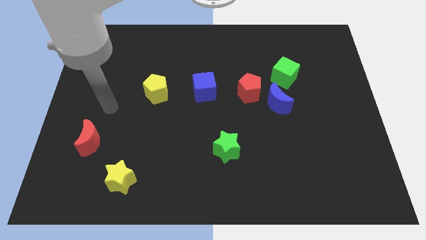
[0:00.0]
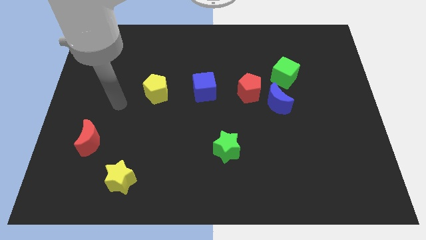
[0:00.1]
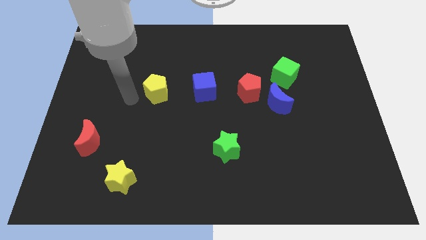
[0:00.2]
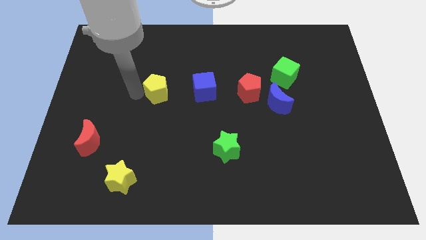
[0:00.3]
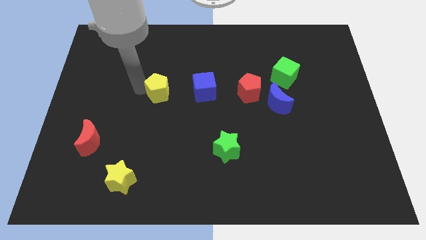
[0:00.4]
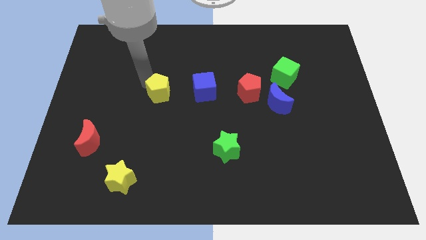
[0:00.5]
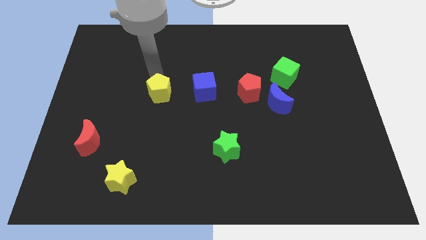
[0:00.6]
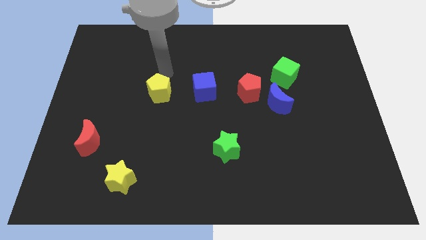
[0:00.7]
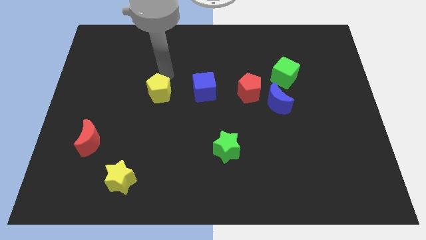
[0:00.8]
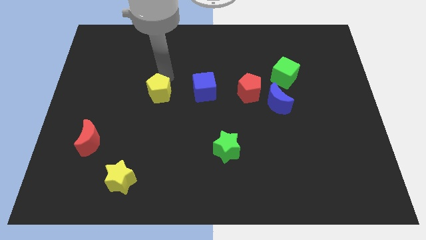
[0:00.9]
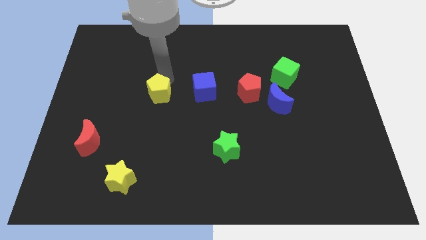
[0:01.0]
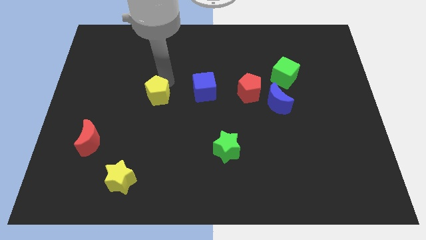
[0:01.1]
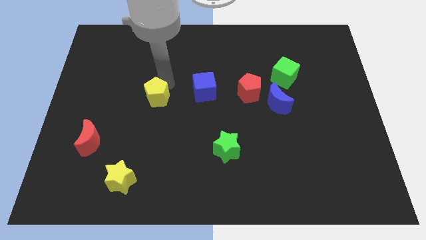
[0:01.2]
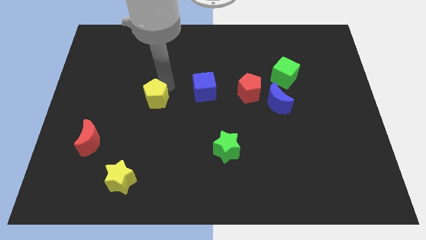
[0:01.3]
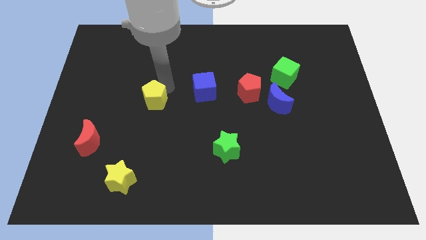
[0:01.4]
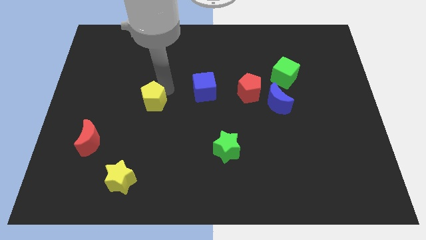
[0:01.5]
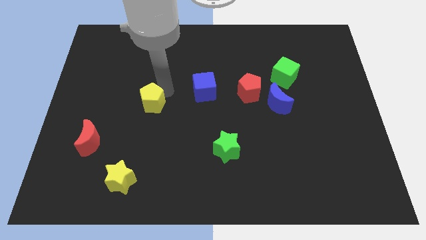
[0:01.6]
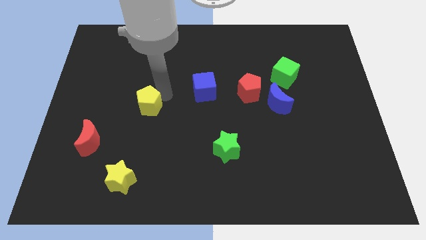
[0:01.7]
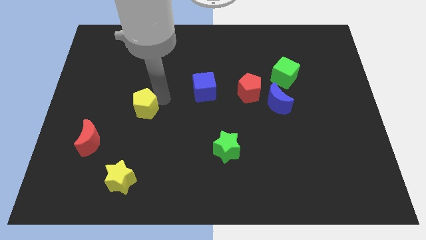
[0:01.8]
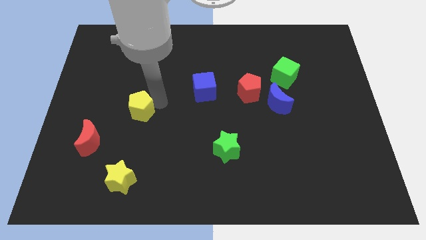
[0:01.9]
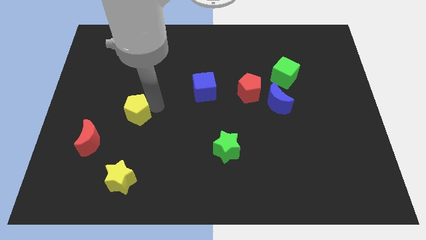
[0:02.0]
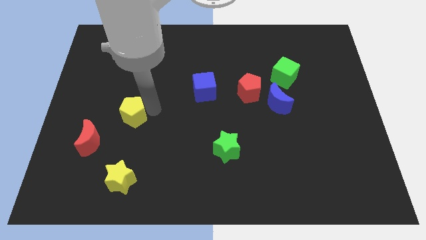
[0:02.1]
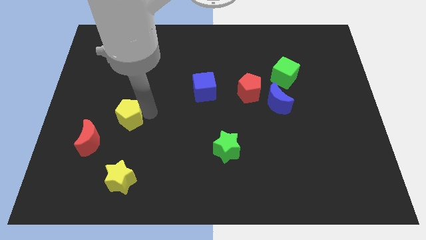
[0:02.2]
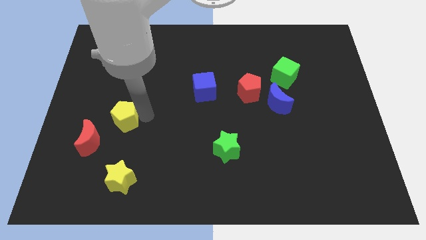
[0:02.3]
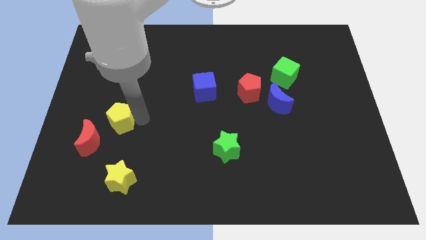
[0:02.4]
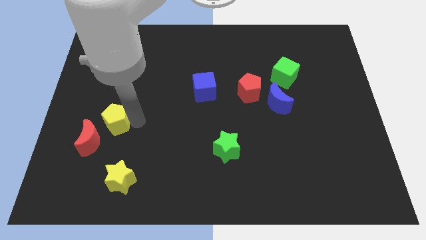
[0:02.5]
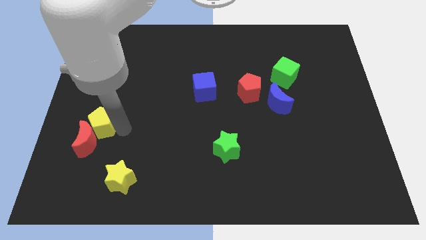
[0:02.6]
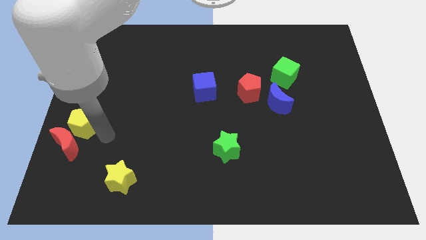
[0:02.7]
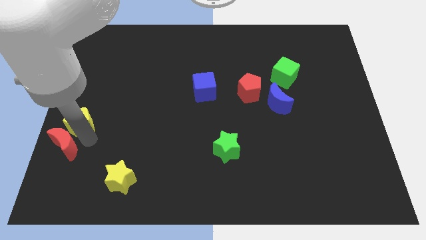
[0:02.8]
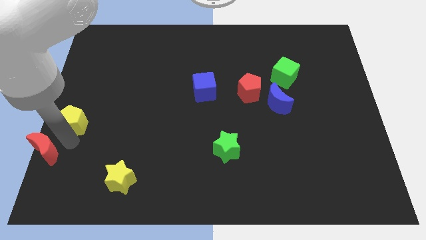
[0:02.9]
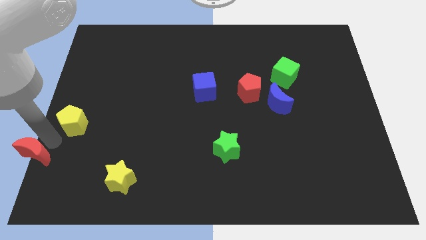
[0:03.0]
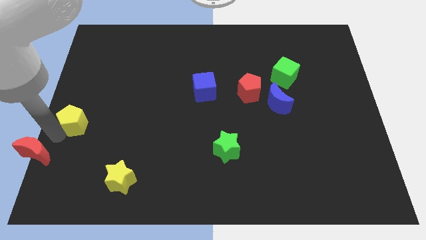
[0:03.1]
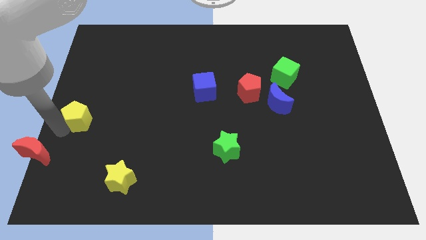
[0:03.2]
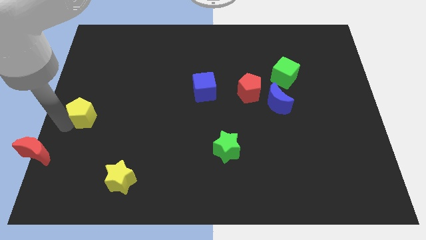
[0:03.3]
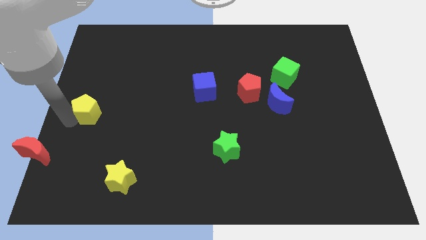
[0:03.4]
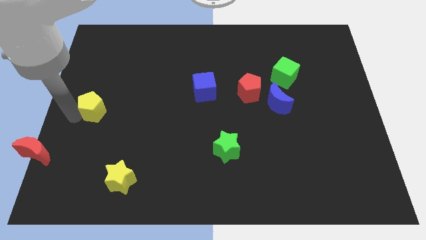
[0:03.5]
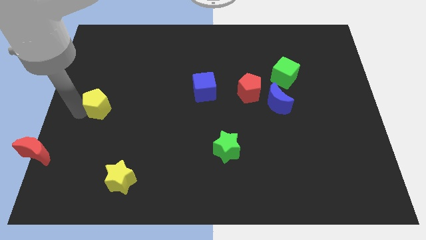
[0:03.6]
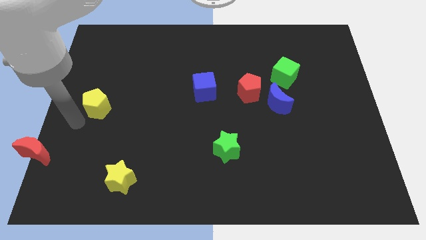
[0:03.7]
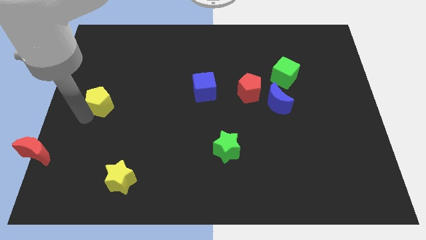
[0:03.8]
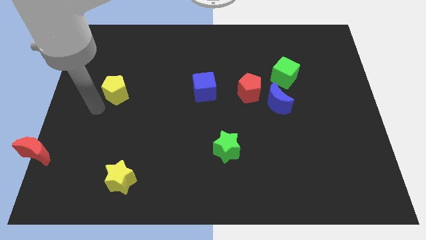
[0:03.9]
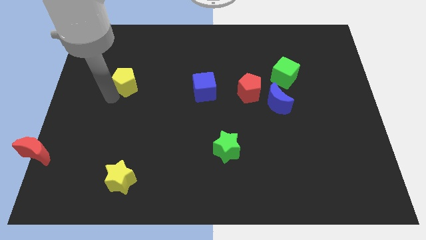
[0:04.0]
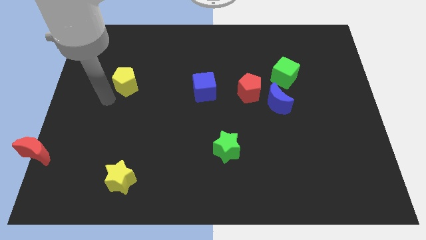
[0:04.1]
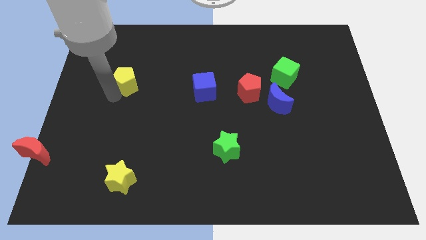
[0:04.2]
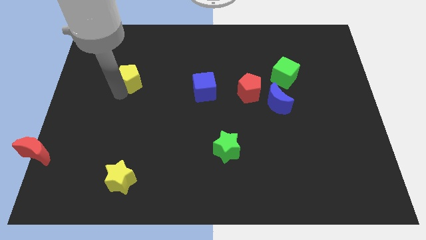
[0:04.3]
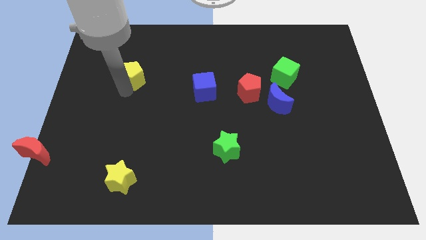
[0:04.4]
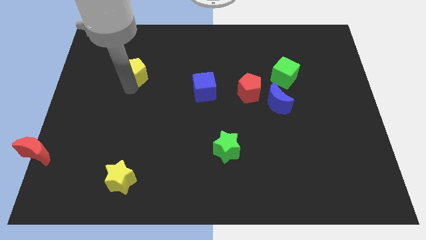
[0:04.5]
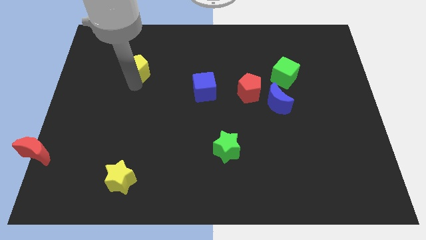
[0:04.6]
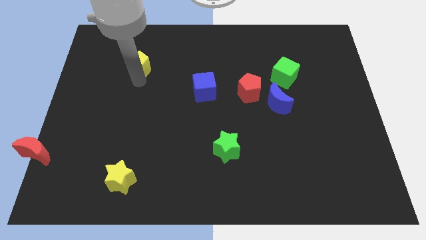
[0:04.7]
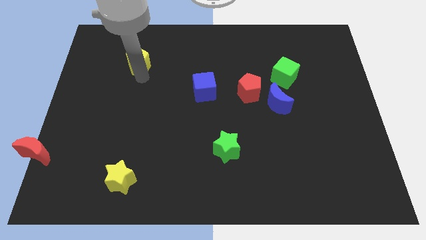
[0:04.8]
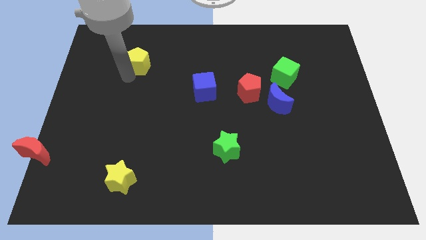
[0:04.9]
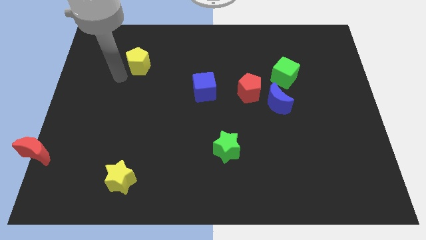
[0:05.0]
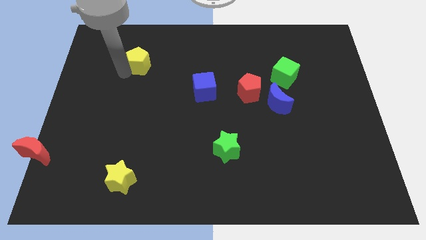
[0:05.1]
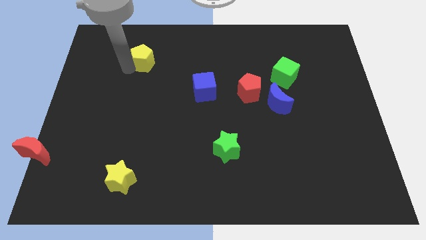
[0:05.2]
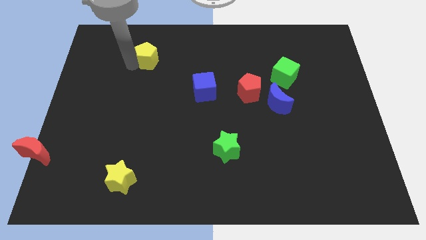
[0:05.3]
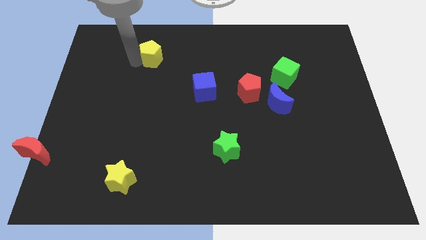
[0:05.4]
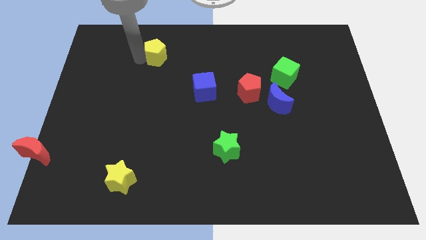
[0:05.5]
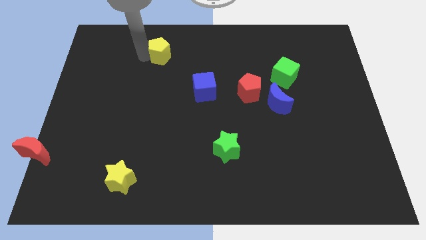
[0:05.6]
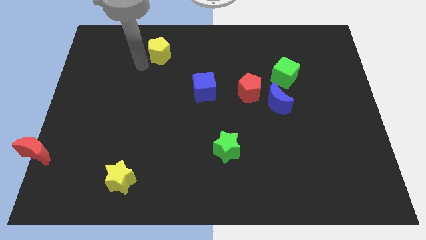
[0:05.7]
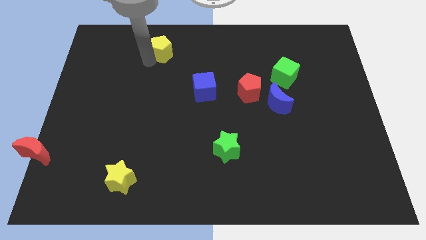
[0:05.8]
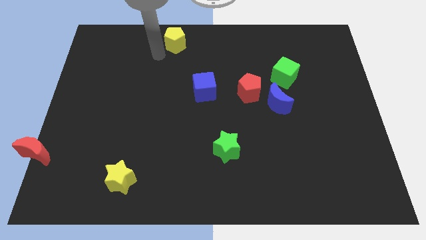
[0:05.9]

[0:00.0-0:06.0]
slide the yellow pentagon to the top
